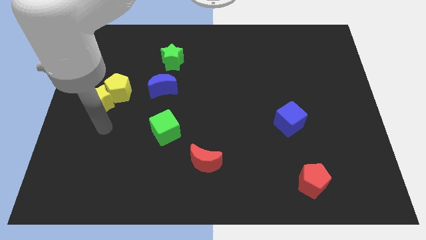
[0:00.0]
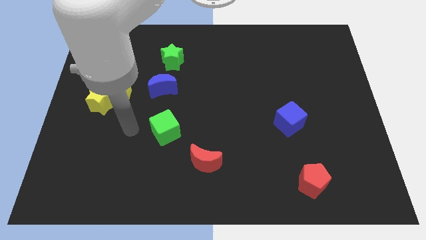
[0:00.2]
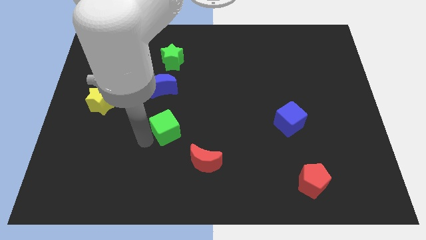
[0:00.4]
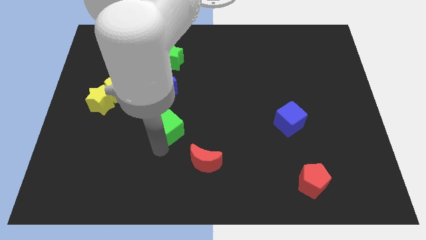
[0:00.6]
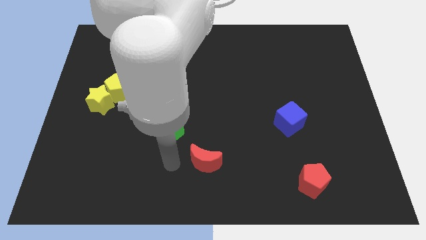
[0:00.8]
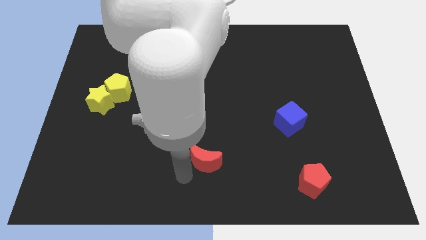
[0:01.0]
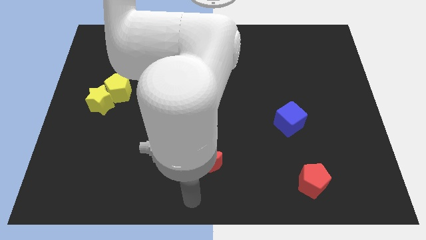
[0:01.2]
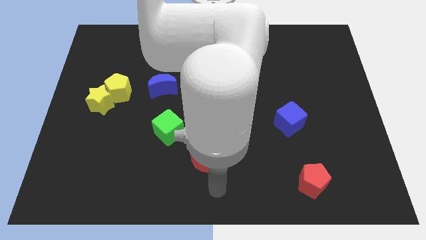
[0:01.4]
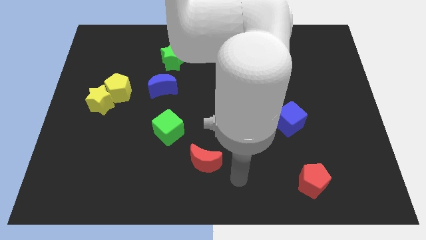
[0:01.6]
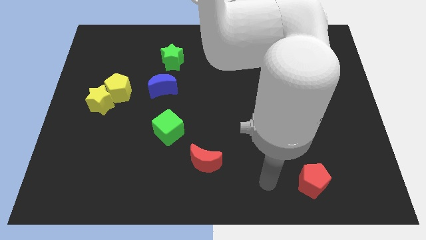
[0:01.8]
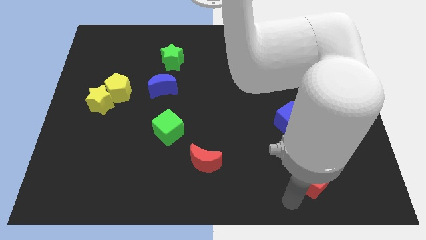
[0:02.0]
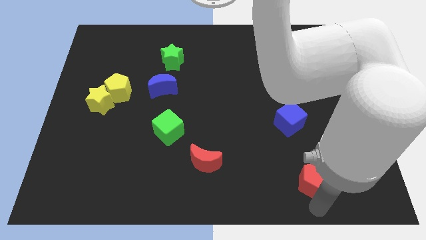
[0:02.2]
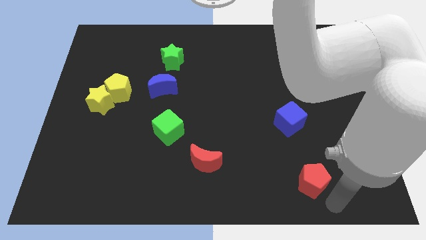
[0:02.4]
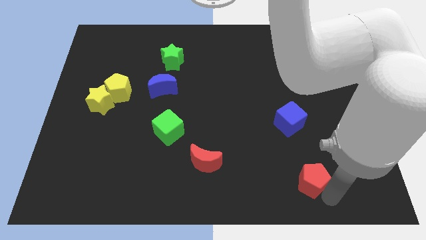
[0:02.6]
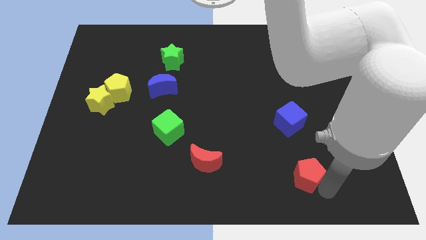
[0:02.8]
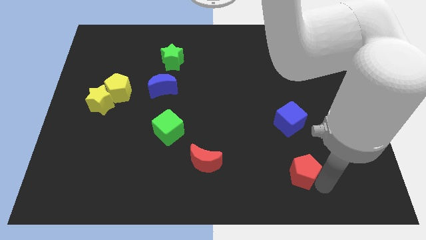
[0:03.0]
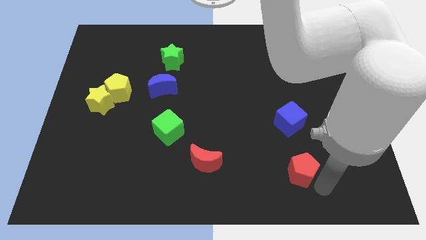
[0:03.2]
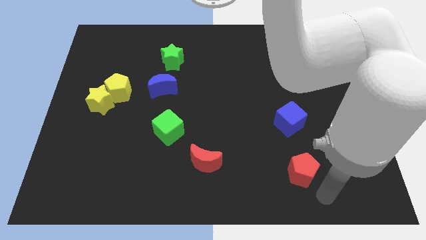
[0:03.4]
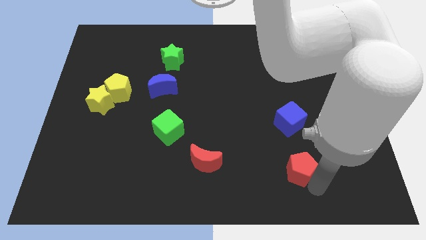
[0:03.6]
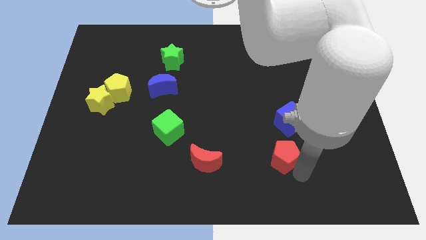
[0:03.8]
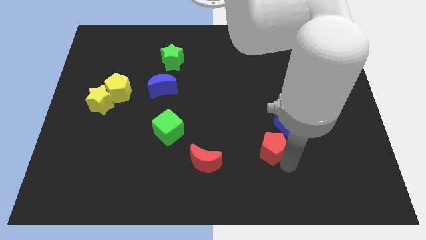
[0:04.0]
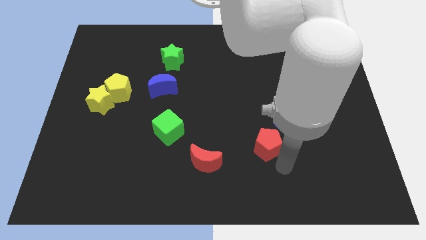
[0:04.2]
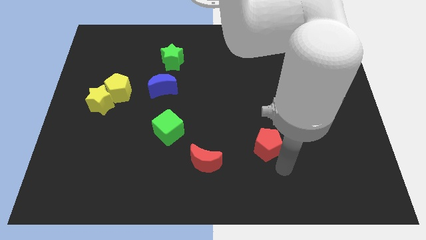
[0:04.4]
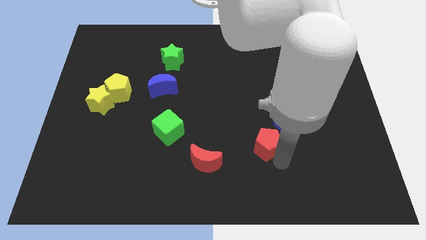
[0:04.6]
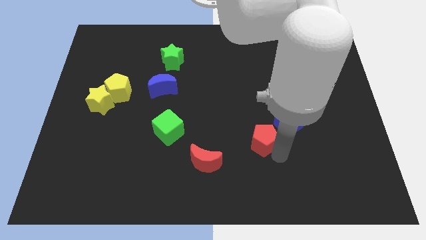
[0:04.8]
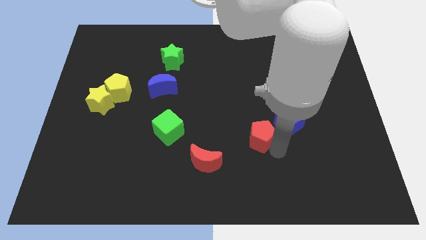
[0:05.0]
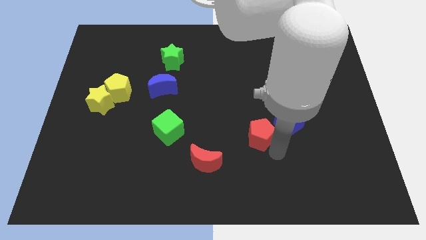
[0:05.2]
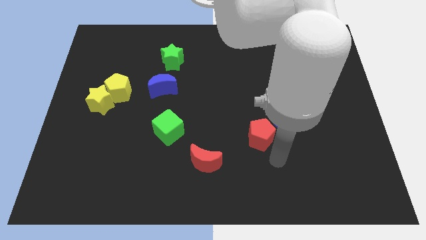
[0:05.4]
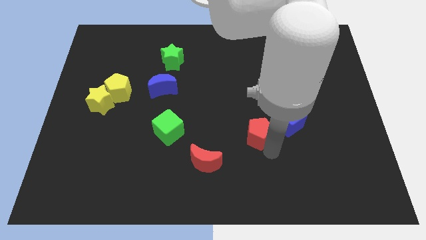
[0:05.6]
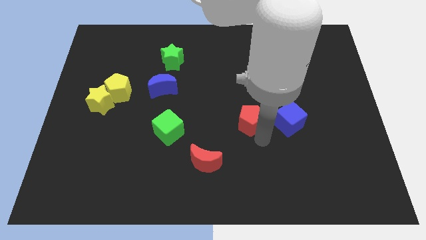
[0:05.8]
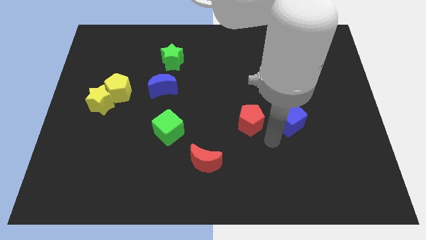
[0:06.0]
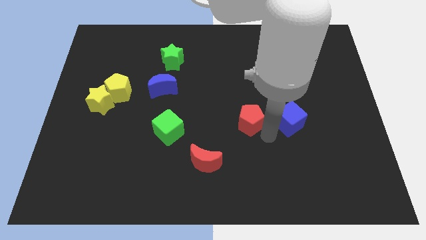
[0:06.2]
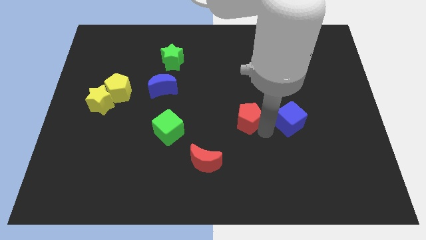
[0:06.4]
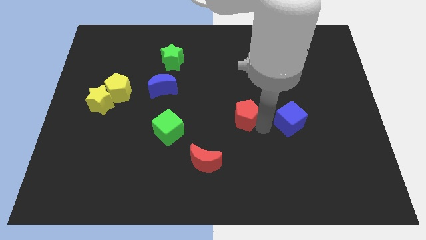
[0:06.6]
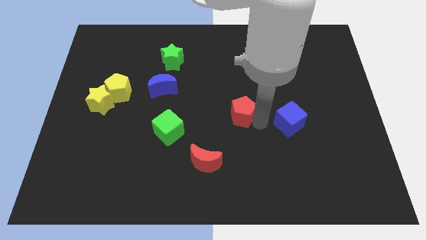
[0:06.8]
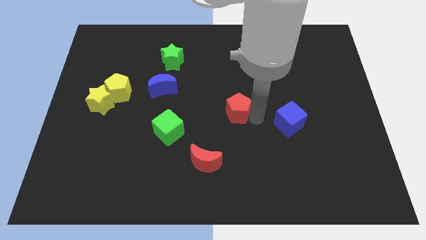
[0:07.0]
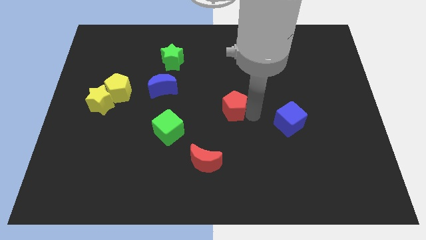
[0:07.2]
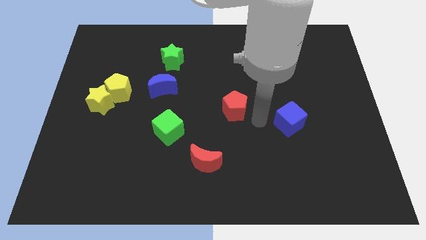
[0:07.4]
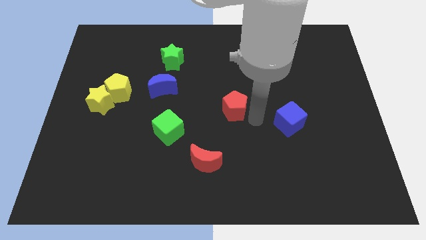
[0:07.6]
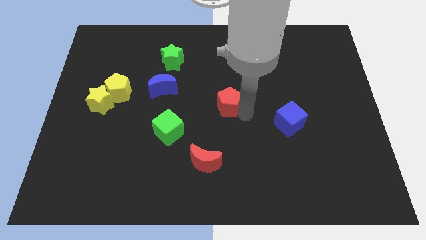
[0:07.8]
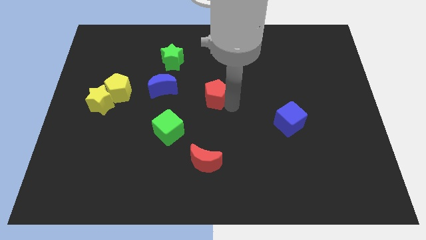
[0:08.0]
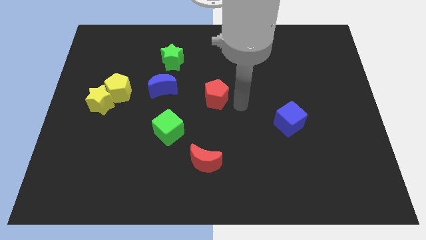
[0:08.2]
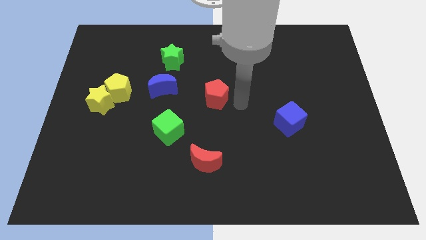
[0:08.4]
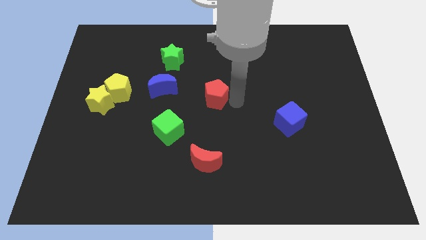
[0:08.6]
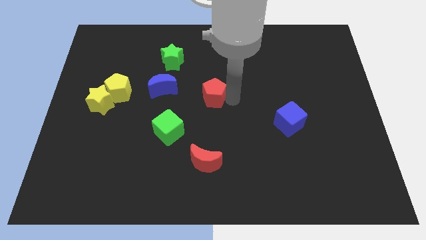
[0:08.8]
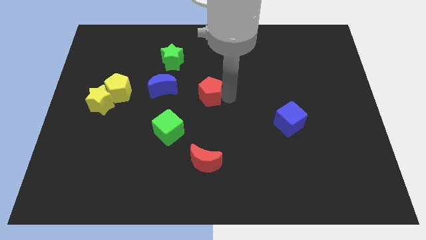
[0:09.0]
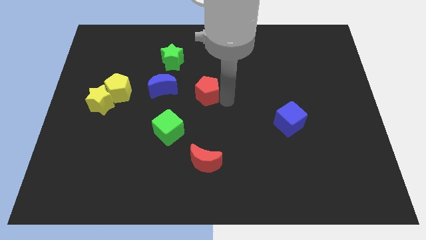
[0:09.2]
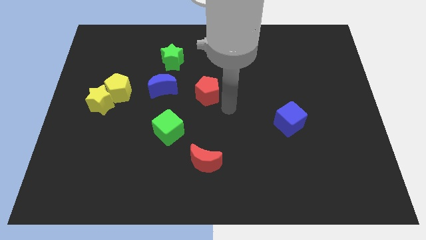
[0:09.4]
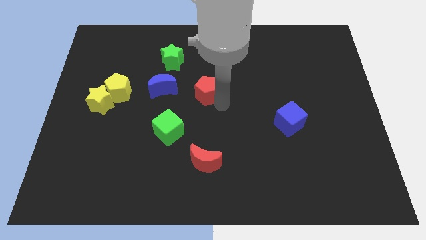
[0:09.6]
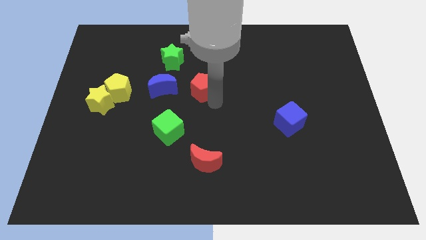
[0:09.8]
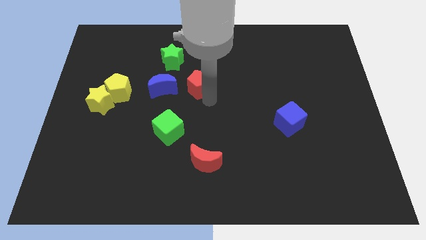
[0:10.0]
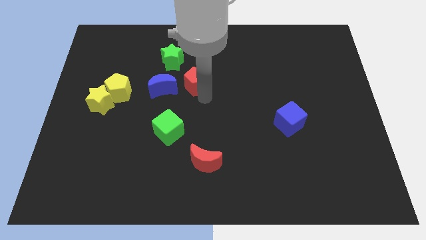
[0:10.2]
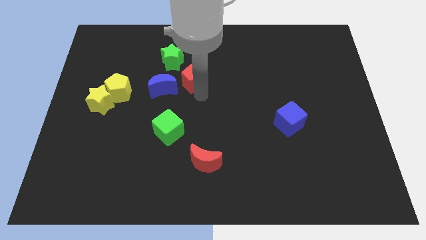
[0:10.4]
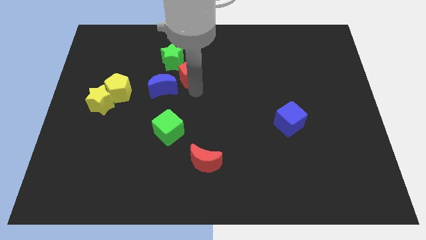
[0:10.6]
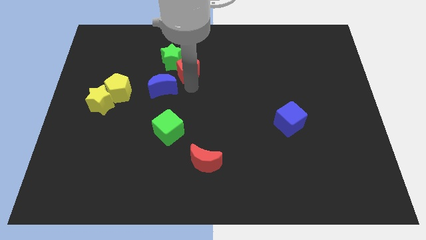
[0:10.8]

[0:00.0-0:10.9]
slide the red pentagon towards the green star

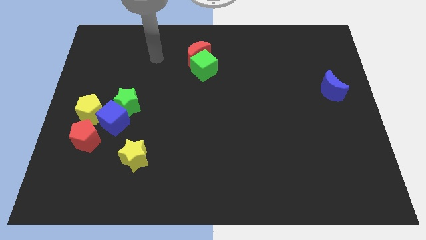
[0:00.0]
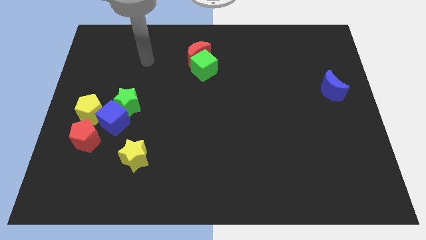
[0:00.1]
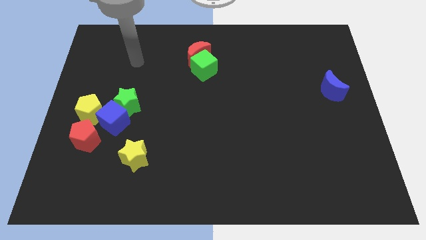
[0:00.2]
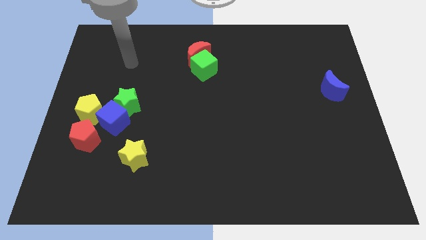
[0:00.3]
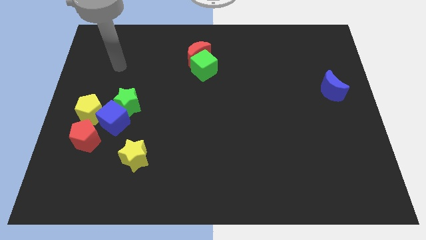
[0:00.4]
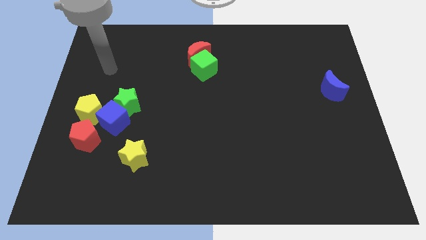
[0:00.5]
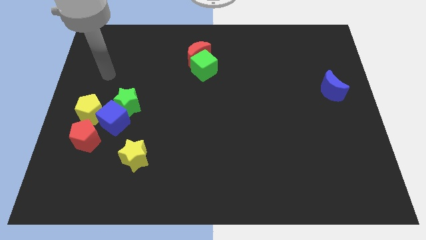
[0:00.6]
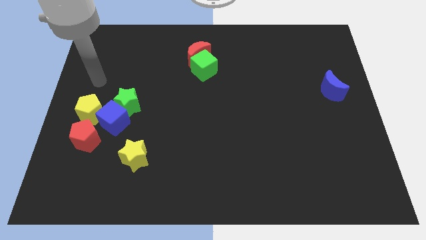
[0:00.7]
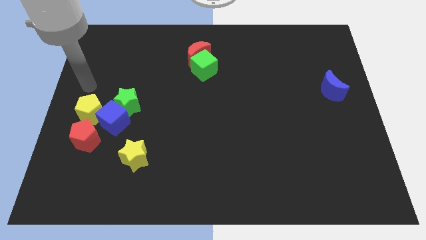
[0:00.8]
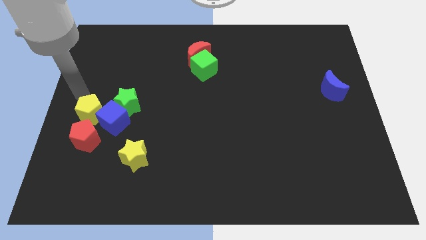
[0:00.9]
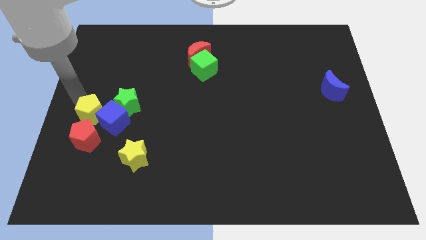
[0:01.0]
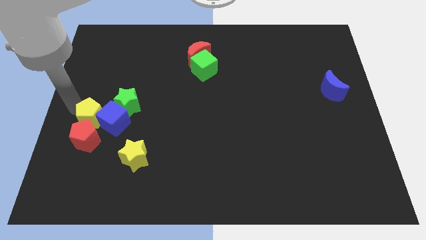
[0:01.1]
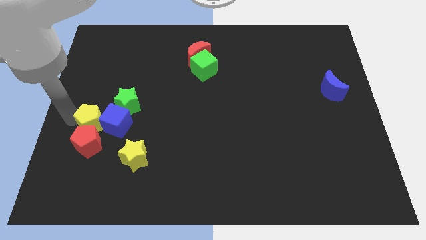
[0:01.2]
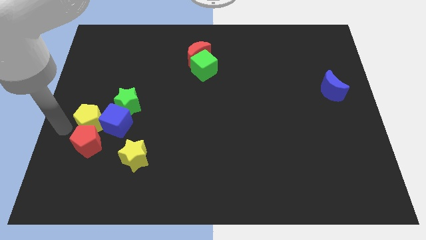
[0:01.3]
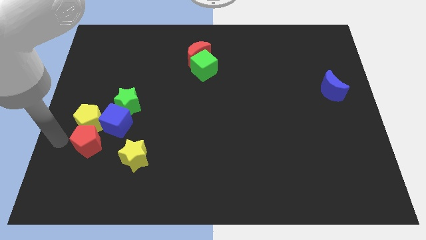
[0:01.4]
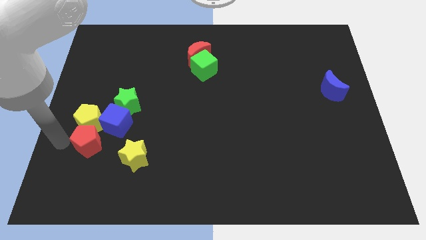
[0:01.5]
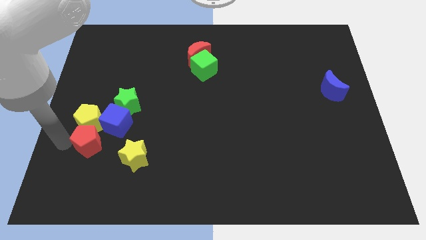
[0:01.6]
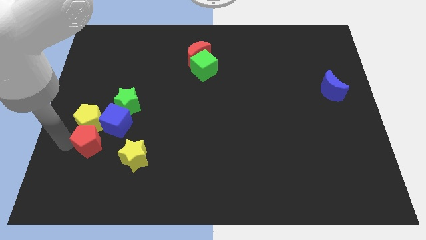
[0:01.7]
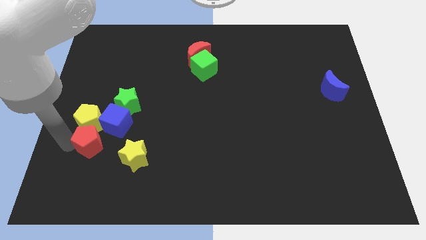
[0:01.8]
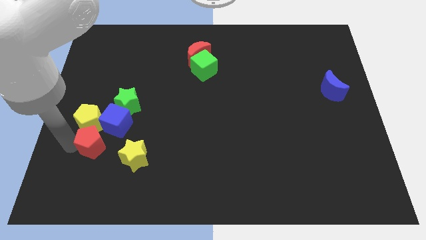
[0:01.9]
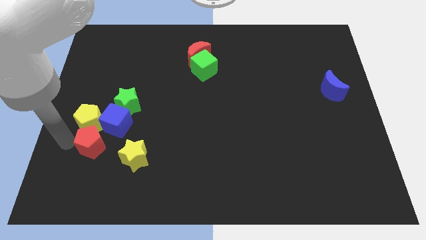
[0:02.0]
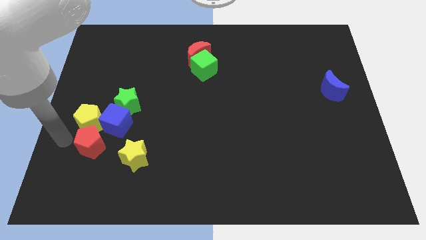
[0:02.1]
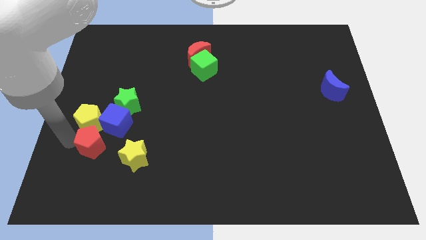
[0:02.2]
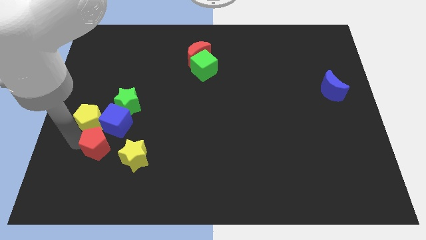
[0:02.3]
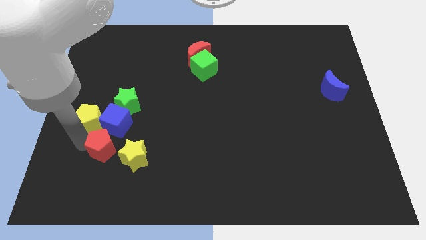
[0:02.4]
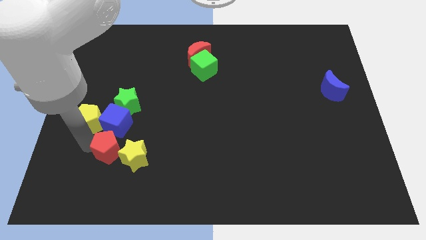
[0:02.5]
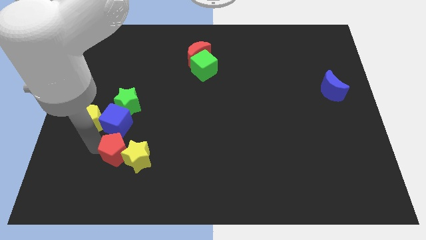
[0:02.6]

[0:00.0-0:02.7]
move the red pentagon next to the yellow star
